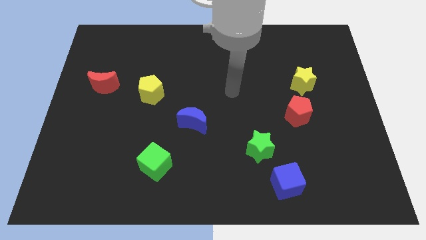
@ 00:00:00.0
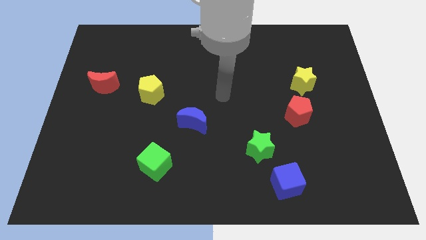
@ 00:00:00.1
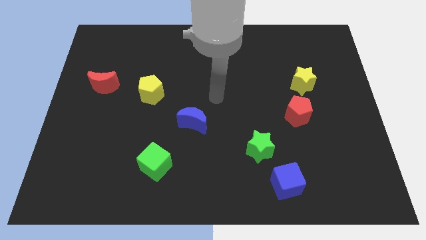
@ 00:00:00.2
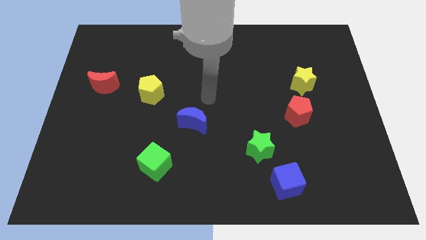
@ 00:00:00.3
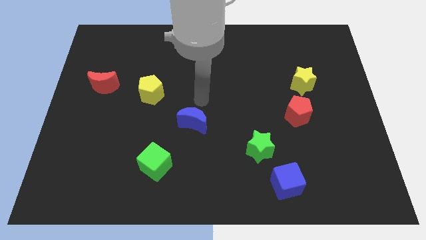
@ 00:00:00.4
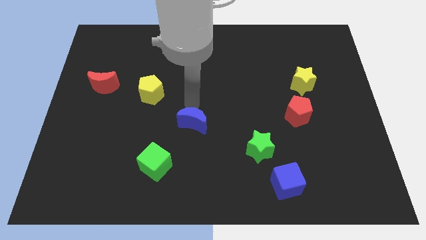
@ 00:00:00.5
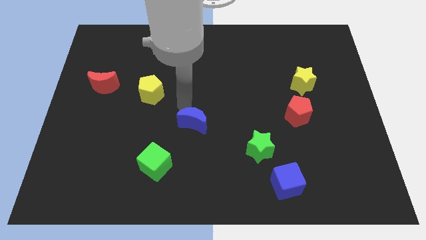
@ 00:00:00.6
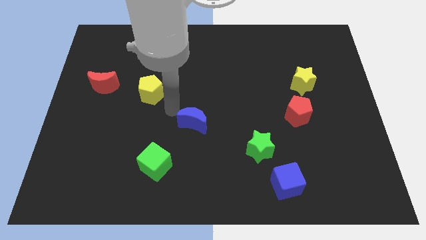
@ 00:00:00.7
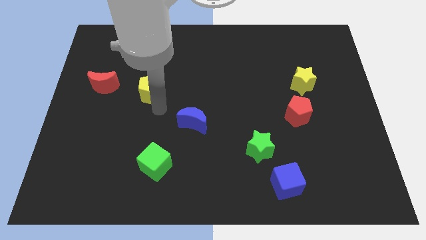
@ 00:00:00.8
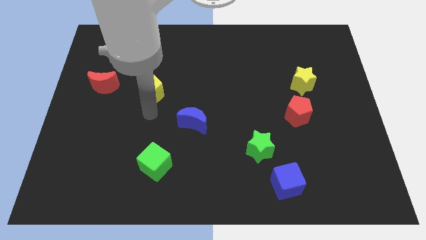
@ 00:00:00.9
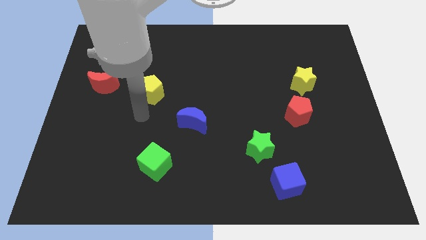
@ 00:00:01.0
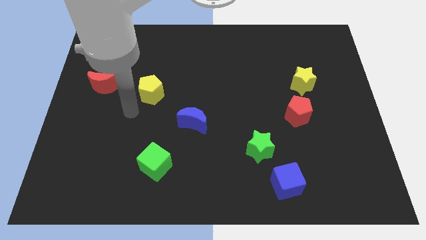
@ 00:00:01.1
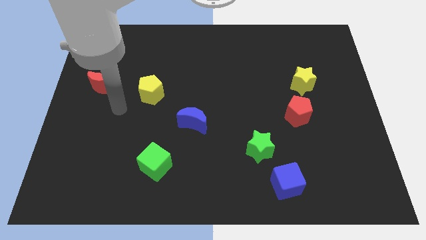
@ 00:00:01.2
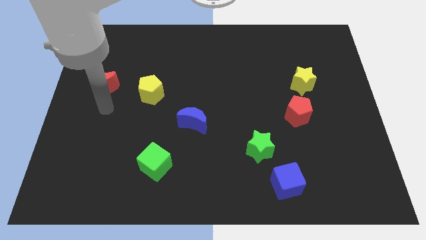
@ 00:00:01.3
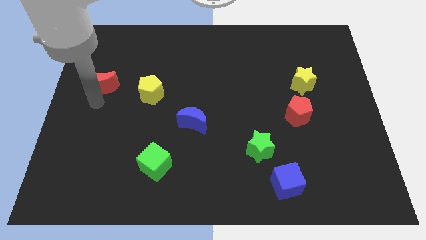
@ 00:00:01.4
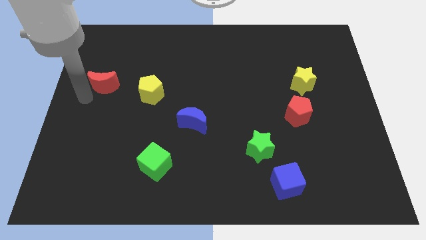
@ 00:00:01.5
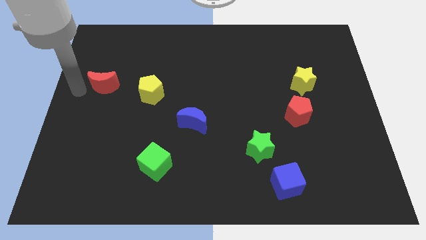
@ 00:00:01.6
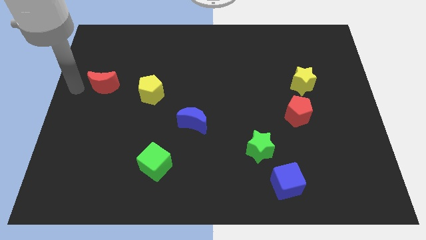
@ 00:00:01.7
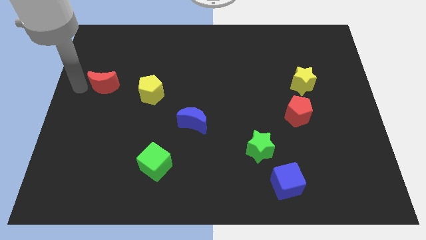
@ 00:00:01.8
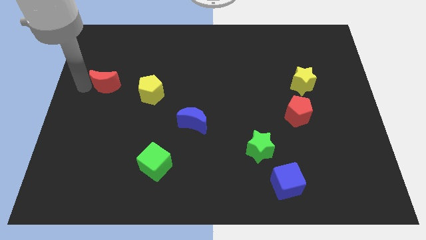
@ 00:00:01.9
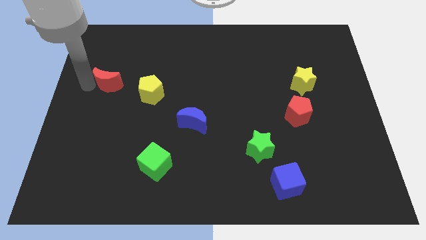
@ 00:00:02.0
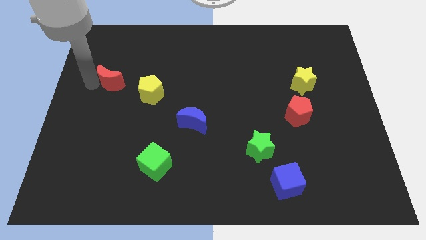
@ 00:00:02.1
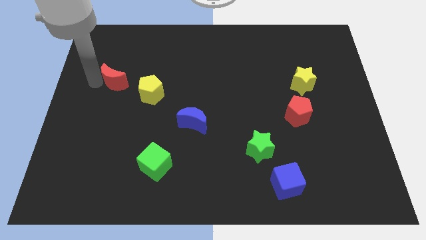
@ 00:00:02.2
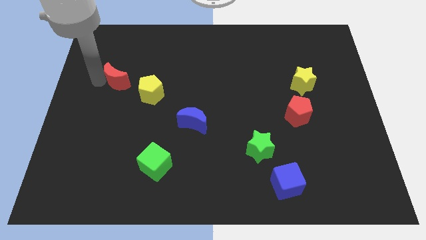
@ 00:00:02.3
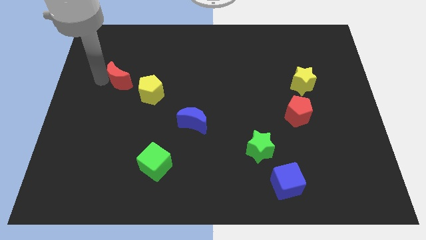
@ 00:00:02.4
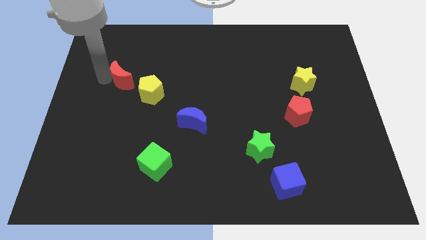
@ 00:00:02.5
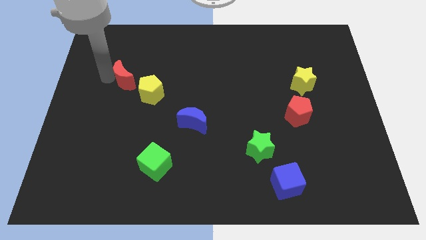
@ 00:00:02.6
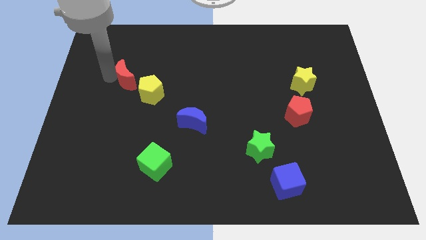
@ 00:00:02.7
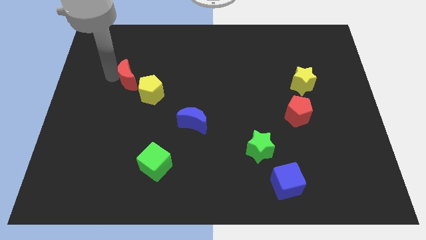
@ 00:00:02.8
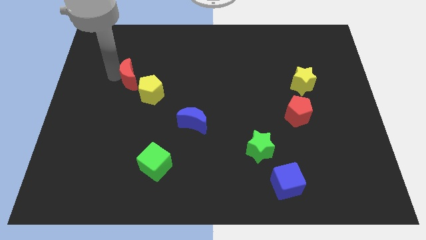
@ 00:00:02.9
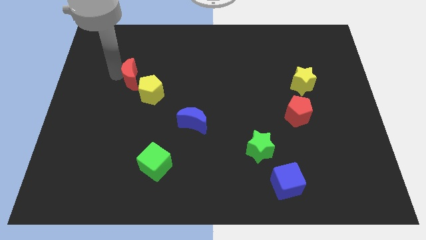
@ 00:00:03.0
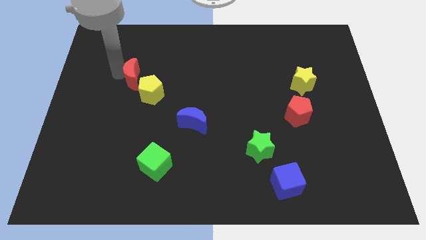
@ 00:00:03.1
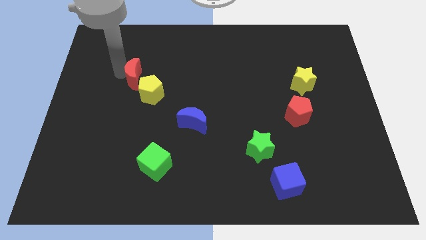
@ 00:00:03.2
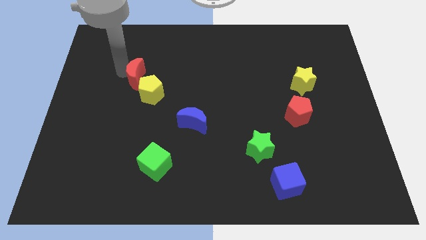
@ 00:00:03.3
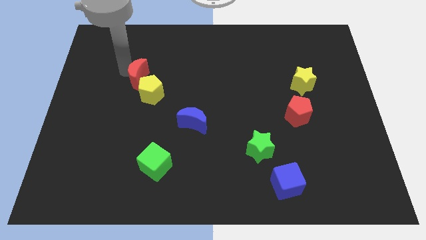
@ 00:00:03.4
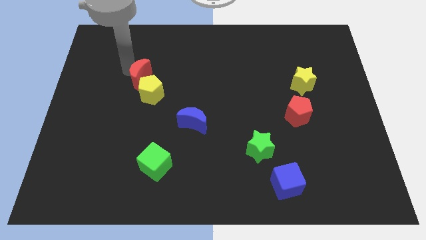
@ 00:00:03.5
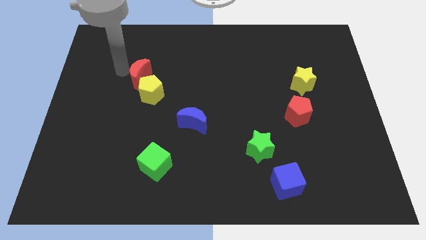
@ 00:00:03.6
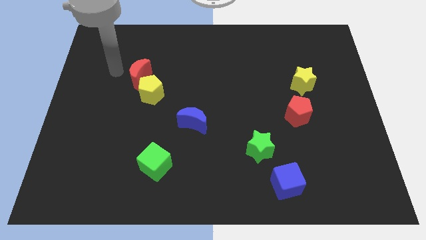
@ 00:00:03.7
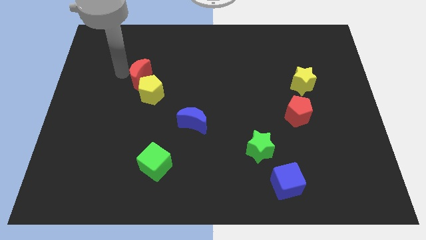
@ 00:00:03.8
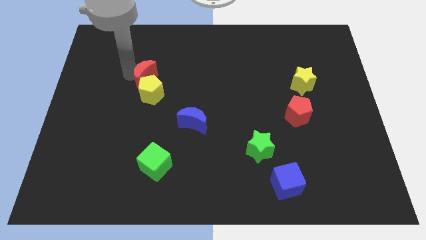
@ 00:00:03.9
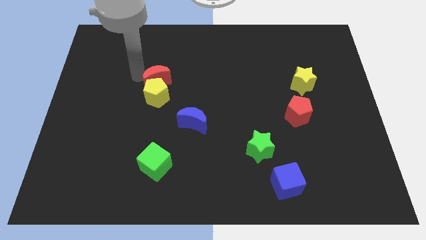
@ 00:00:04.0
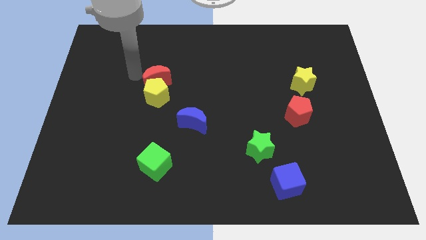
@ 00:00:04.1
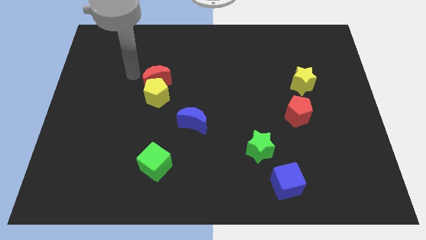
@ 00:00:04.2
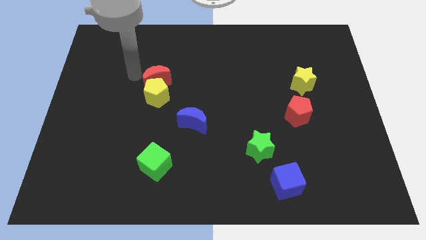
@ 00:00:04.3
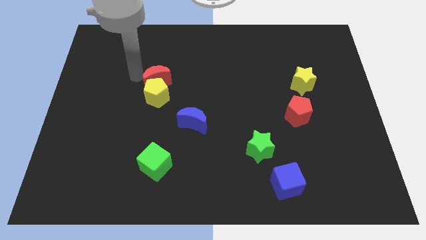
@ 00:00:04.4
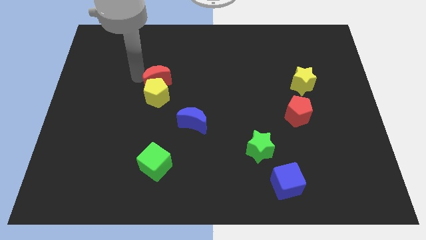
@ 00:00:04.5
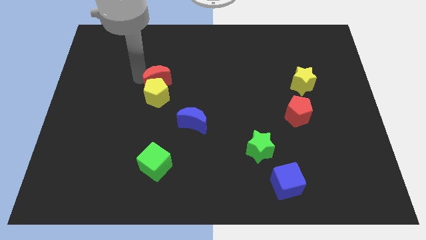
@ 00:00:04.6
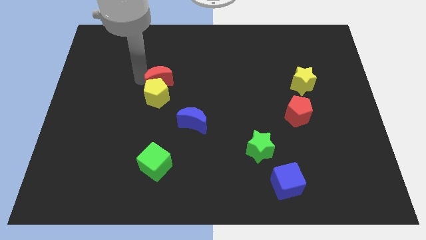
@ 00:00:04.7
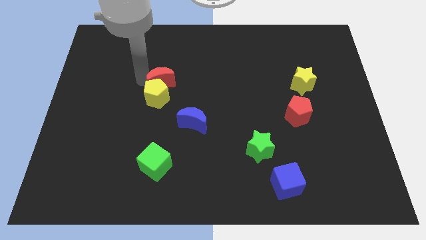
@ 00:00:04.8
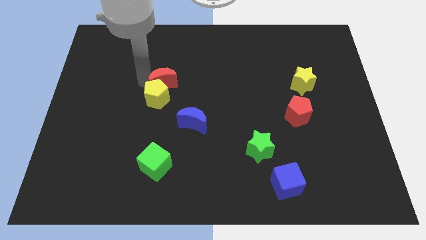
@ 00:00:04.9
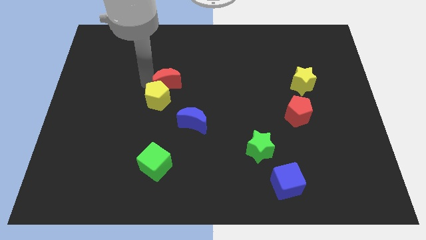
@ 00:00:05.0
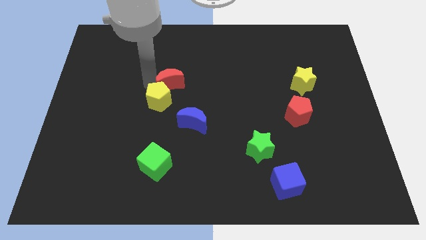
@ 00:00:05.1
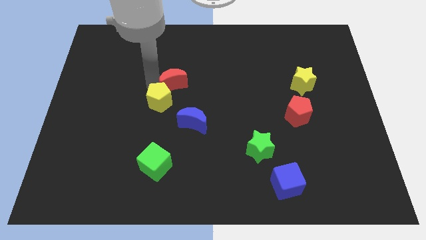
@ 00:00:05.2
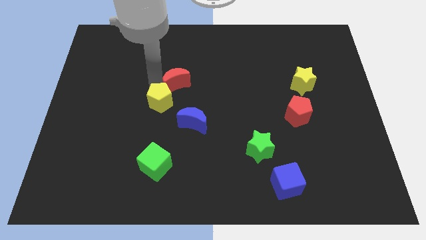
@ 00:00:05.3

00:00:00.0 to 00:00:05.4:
push the red moon to the top side of the blue moon

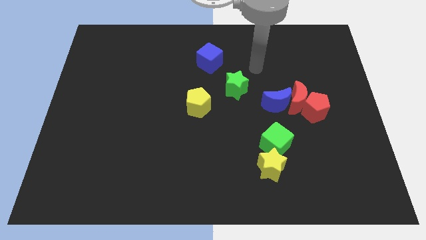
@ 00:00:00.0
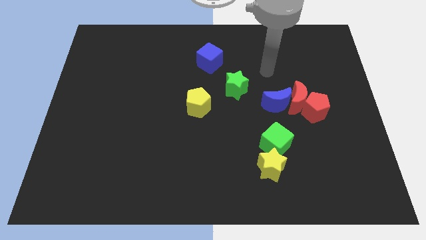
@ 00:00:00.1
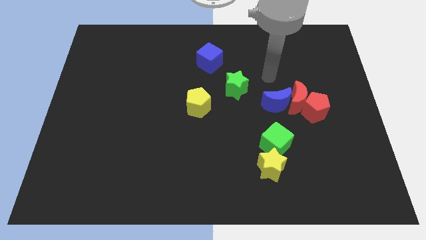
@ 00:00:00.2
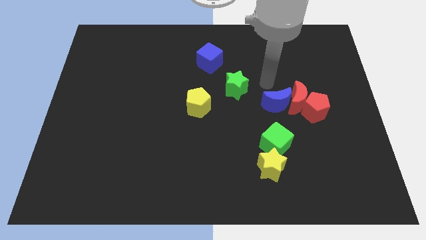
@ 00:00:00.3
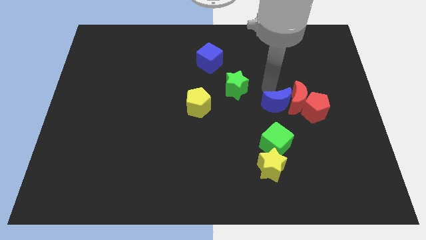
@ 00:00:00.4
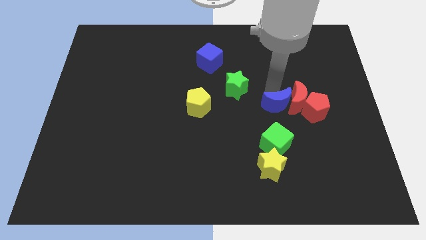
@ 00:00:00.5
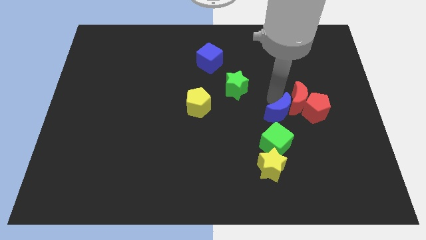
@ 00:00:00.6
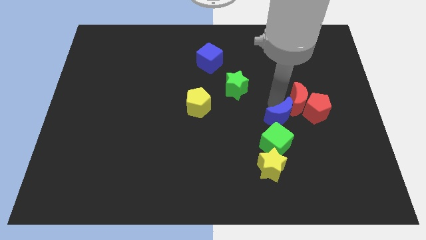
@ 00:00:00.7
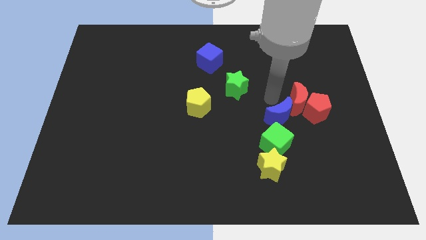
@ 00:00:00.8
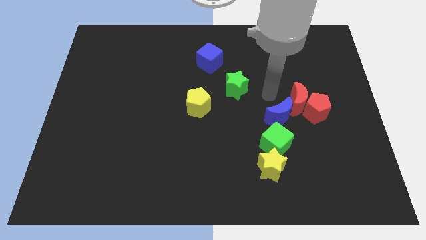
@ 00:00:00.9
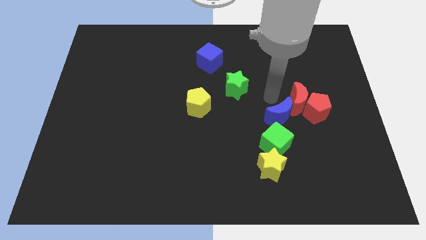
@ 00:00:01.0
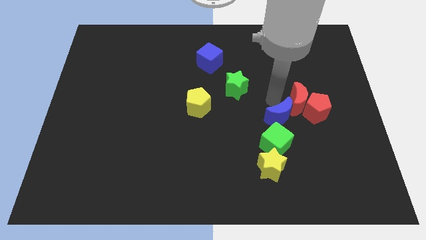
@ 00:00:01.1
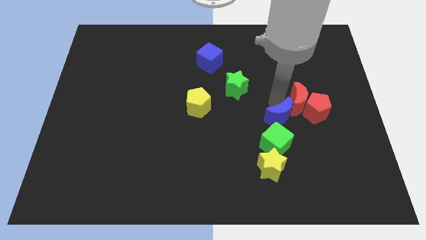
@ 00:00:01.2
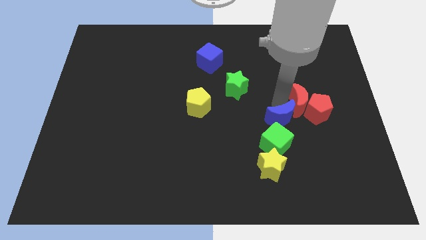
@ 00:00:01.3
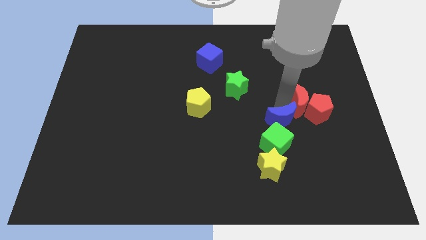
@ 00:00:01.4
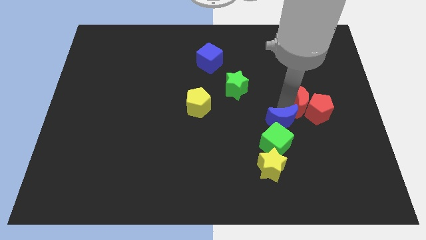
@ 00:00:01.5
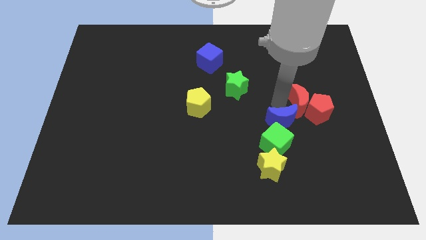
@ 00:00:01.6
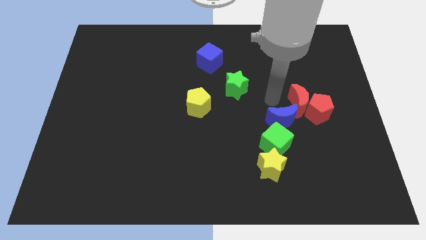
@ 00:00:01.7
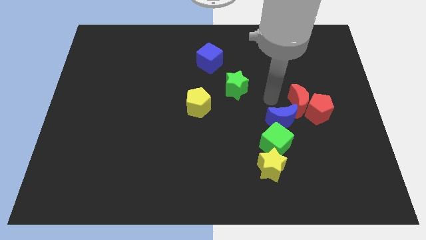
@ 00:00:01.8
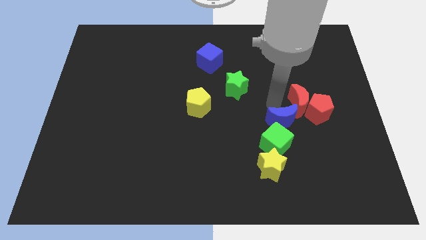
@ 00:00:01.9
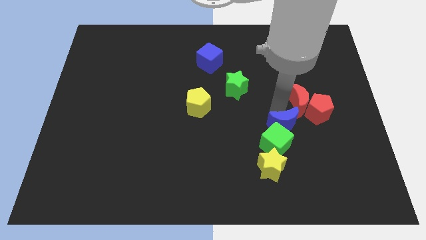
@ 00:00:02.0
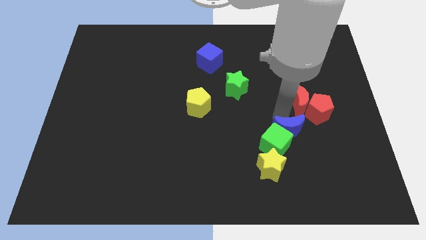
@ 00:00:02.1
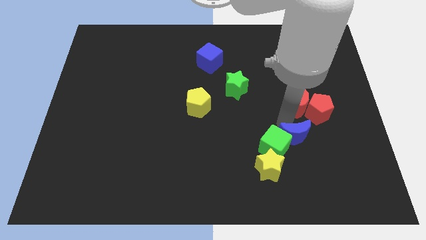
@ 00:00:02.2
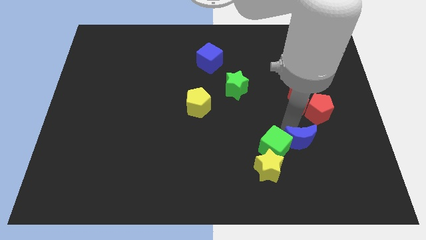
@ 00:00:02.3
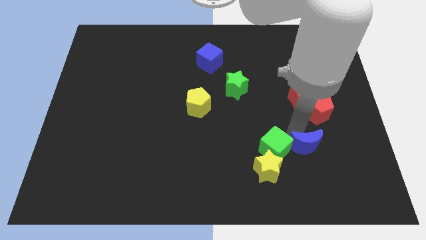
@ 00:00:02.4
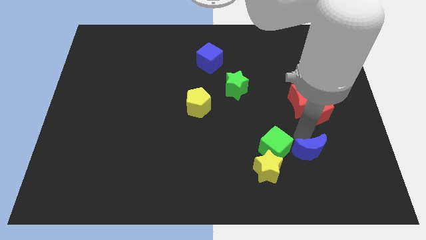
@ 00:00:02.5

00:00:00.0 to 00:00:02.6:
slide the blue moon diagonally down and to the right of the green cube
